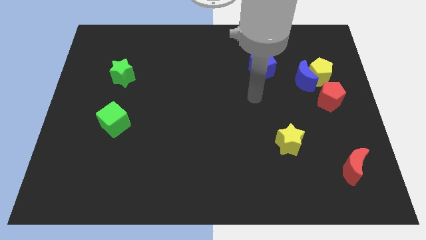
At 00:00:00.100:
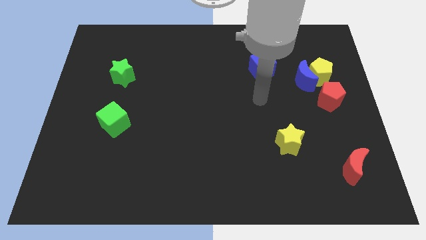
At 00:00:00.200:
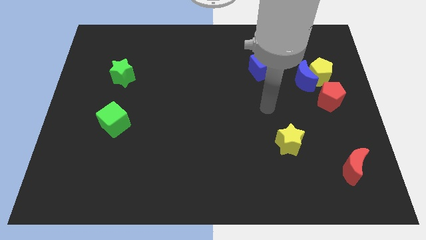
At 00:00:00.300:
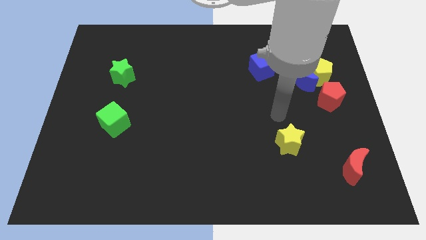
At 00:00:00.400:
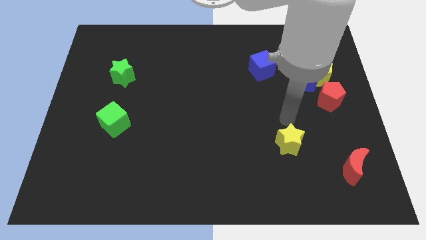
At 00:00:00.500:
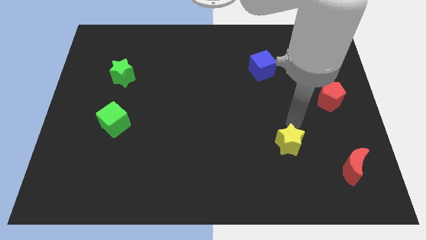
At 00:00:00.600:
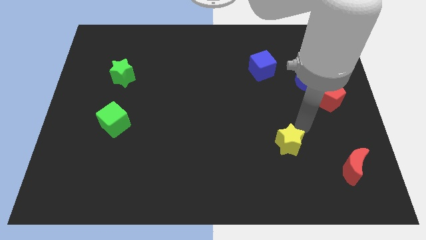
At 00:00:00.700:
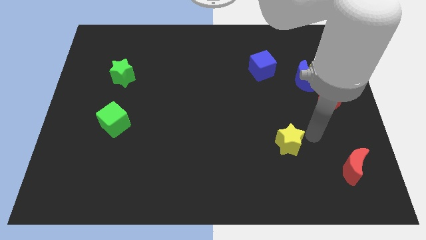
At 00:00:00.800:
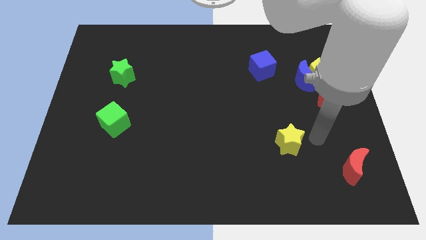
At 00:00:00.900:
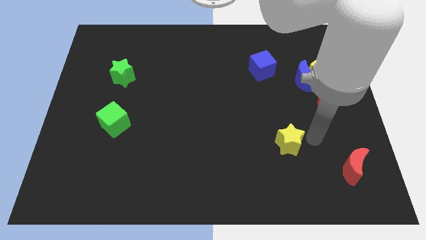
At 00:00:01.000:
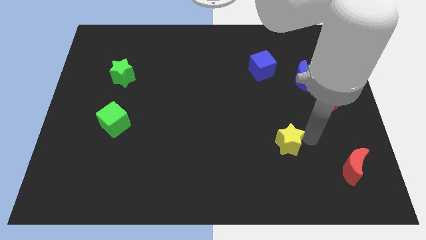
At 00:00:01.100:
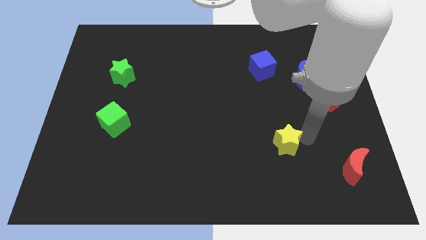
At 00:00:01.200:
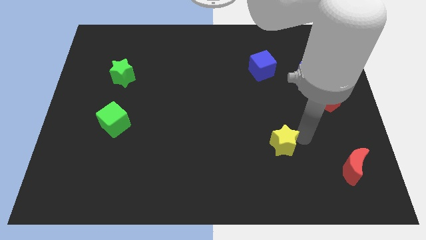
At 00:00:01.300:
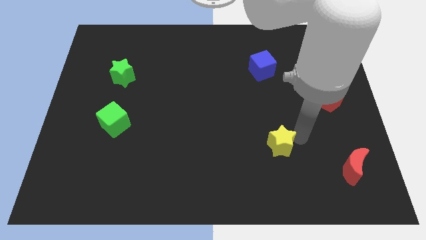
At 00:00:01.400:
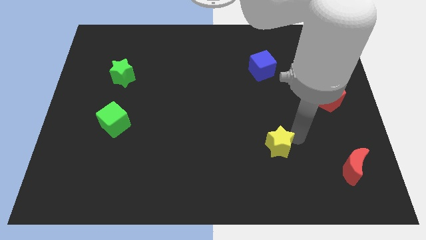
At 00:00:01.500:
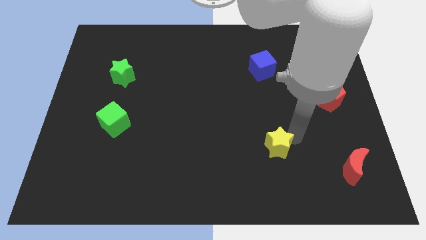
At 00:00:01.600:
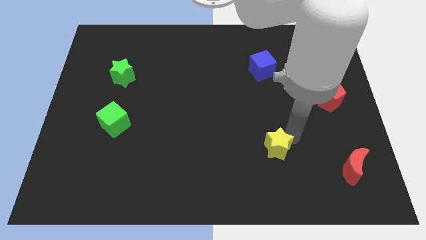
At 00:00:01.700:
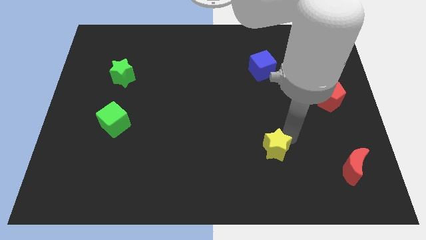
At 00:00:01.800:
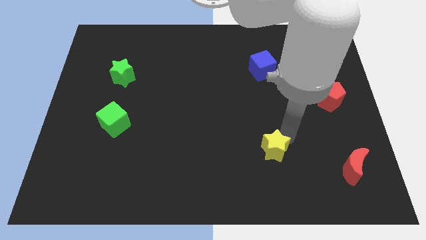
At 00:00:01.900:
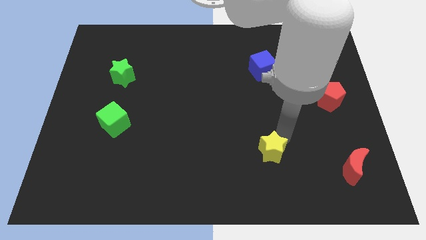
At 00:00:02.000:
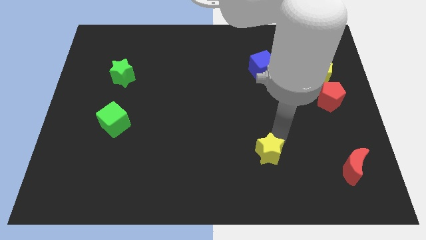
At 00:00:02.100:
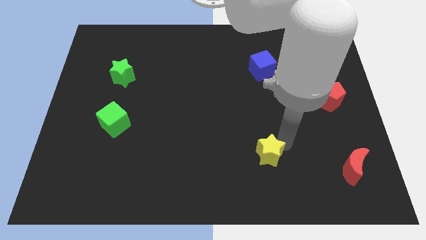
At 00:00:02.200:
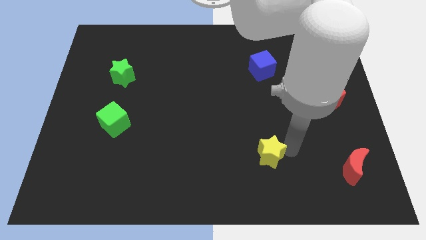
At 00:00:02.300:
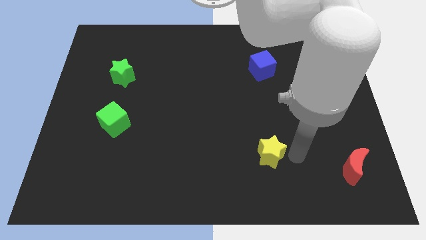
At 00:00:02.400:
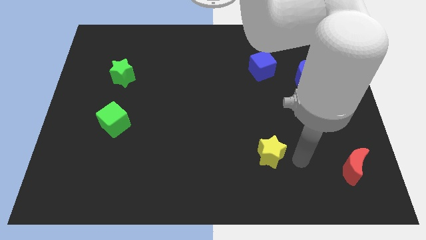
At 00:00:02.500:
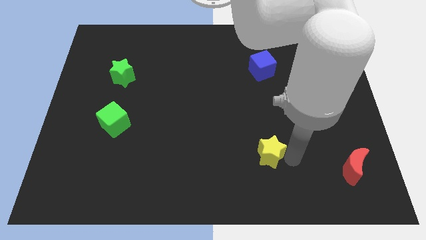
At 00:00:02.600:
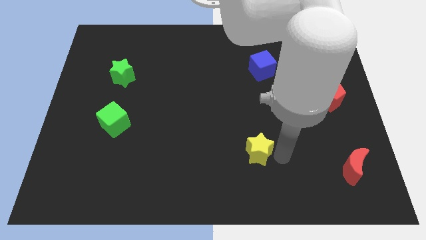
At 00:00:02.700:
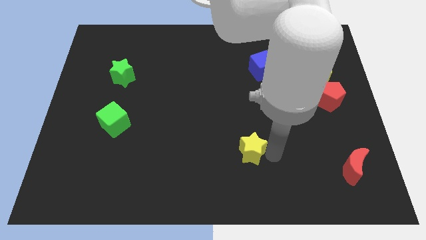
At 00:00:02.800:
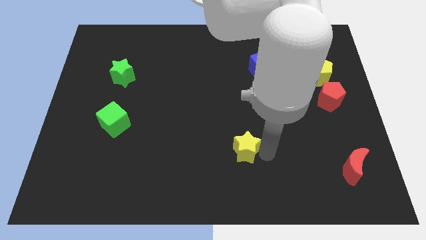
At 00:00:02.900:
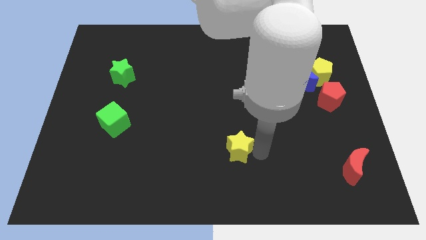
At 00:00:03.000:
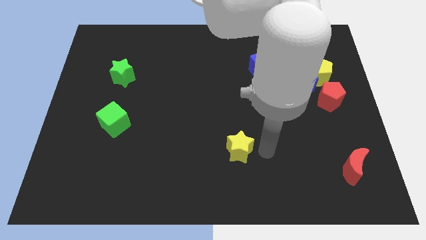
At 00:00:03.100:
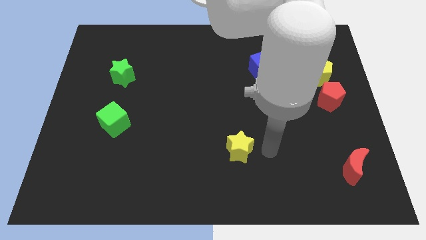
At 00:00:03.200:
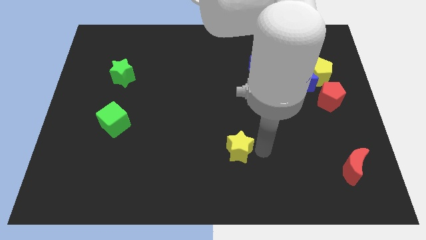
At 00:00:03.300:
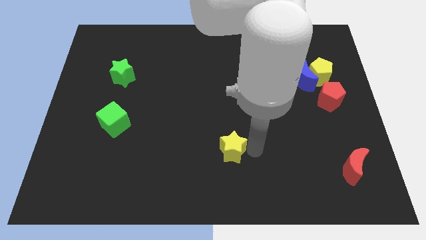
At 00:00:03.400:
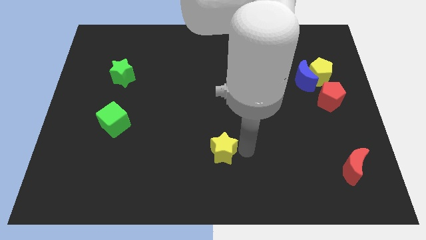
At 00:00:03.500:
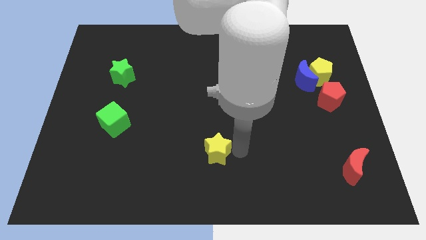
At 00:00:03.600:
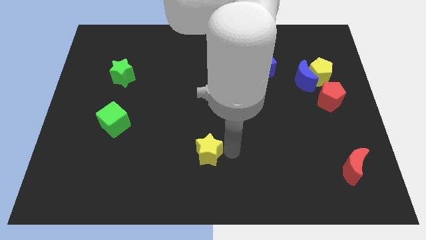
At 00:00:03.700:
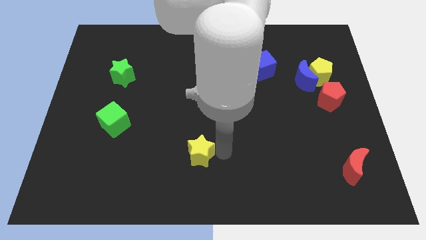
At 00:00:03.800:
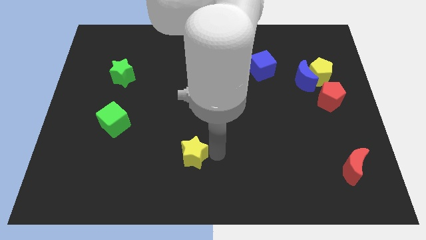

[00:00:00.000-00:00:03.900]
slide the yellow star left

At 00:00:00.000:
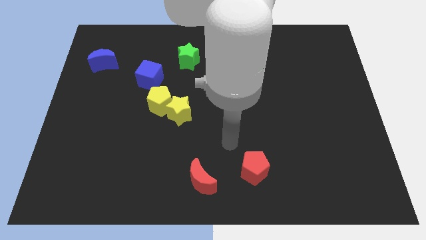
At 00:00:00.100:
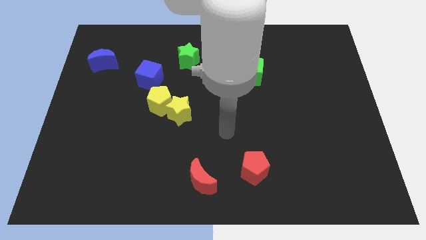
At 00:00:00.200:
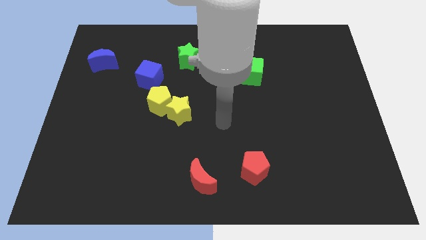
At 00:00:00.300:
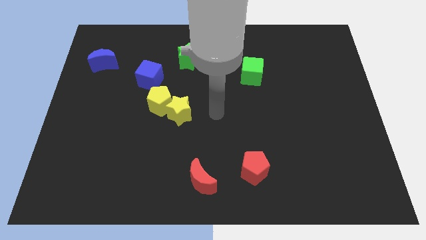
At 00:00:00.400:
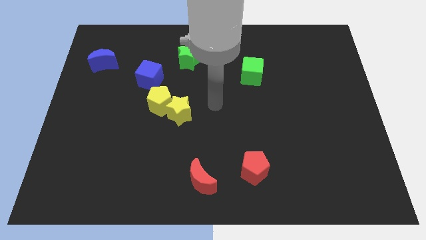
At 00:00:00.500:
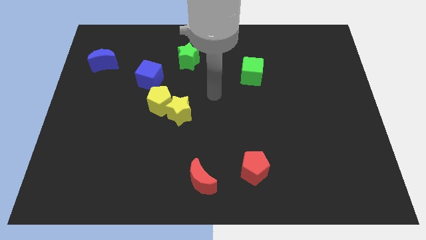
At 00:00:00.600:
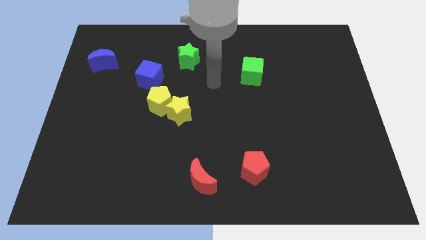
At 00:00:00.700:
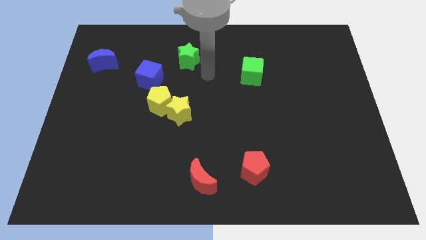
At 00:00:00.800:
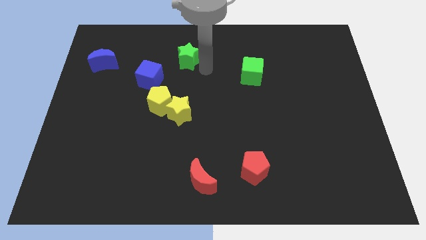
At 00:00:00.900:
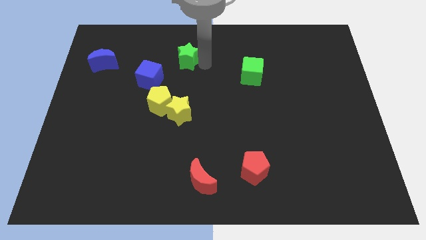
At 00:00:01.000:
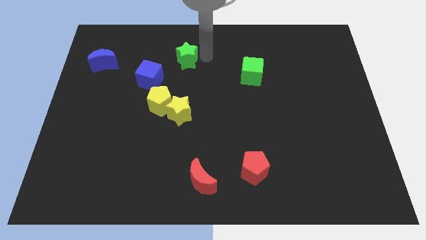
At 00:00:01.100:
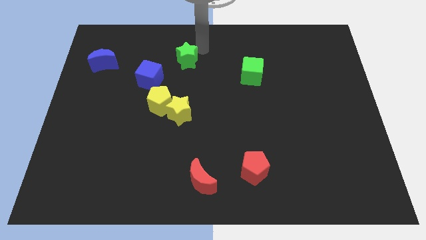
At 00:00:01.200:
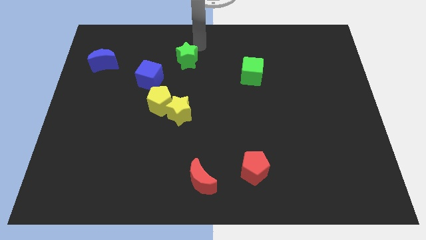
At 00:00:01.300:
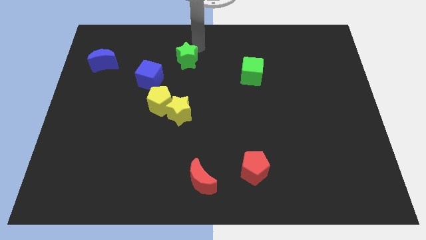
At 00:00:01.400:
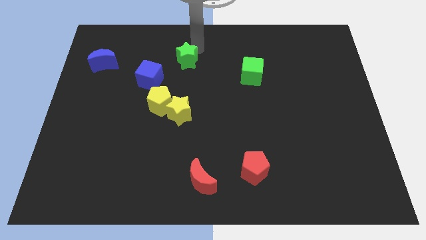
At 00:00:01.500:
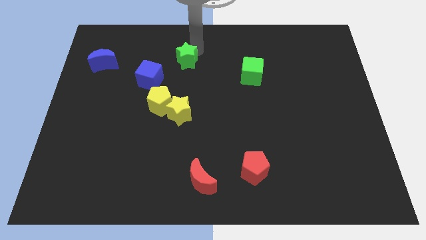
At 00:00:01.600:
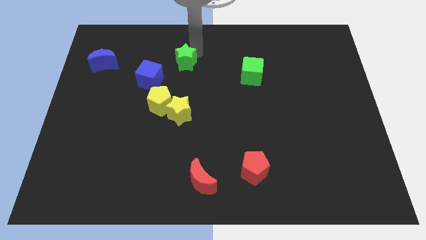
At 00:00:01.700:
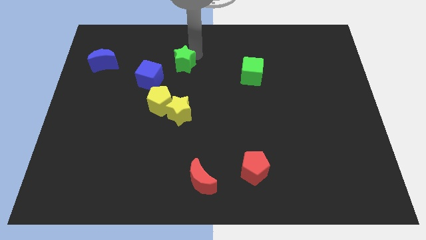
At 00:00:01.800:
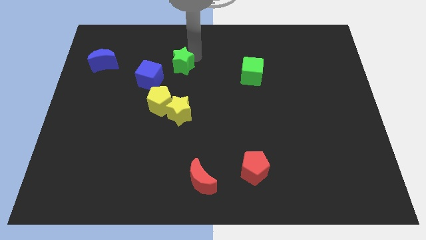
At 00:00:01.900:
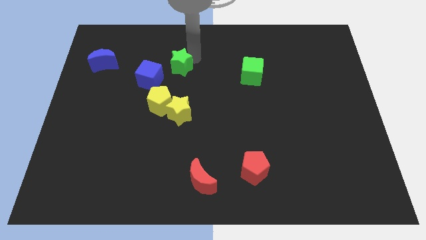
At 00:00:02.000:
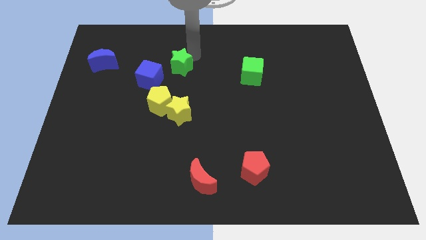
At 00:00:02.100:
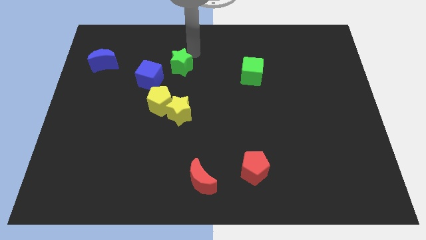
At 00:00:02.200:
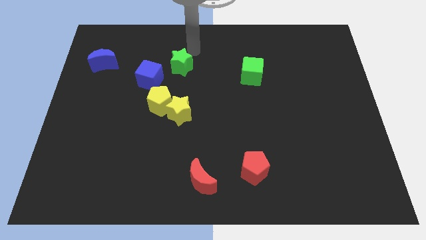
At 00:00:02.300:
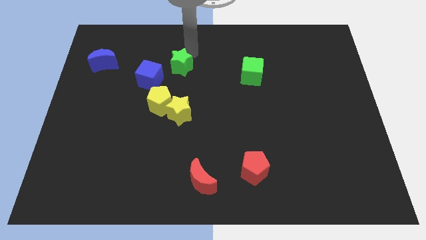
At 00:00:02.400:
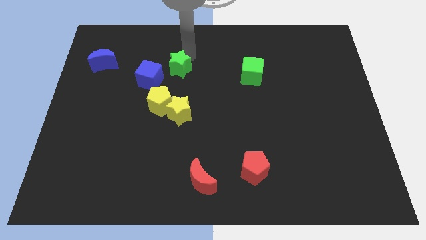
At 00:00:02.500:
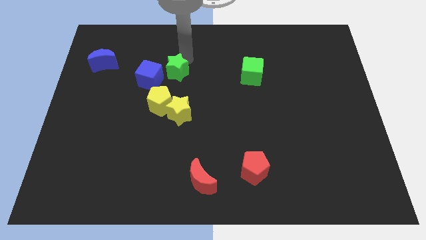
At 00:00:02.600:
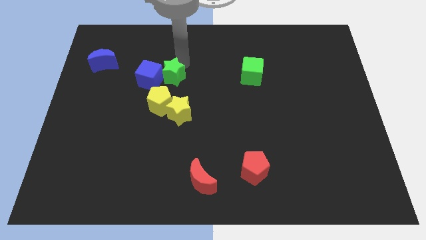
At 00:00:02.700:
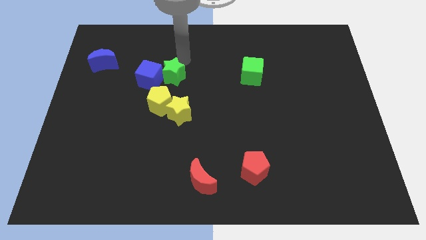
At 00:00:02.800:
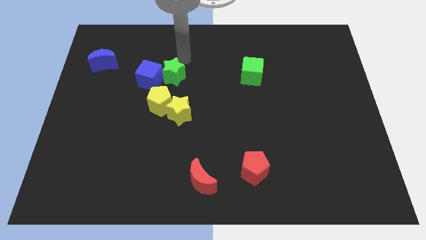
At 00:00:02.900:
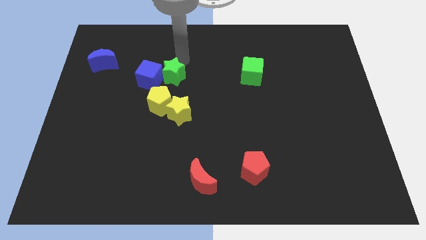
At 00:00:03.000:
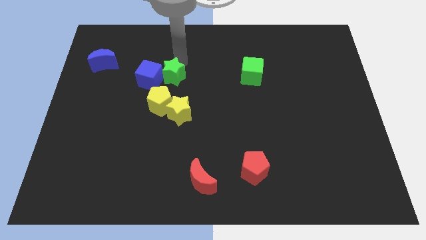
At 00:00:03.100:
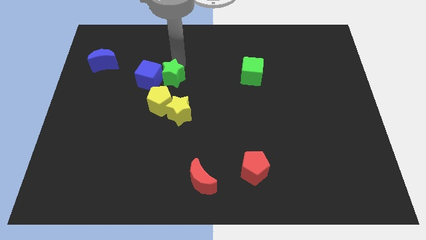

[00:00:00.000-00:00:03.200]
move the green star slightly downwards and left diagonally

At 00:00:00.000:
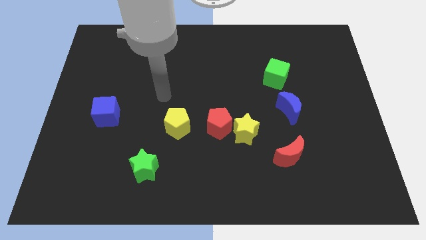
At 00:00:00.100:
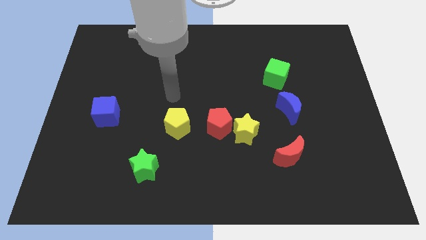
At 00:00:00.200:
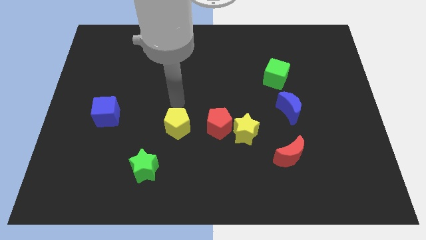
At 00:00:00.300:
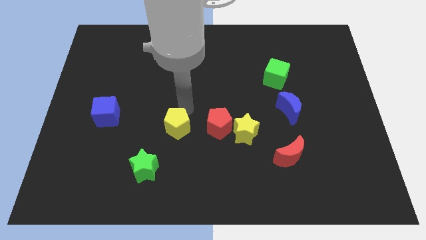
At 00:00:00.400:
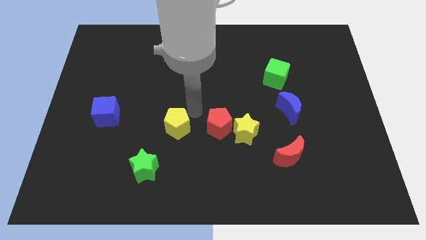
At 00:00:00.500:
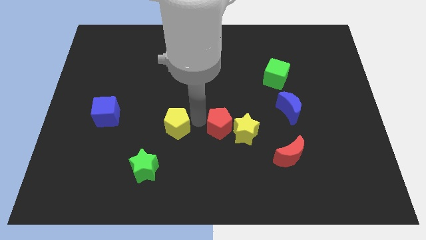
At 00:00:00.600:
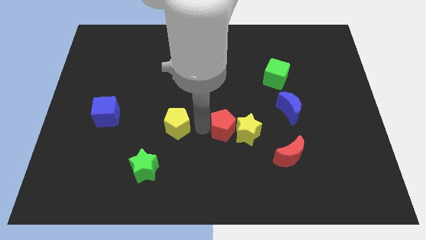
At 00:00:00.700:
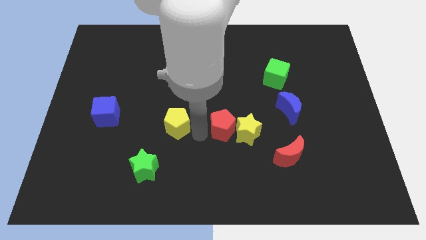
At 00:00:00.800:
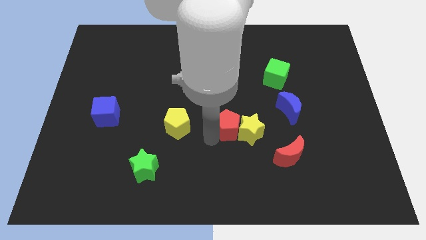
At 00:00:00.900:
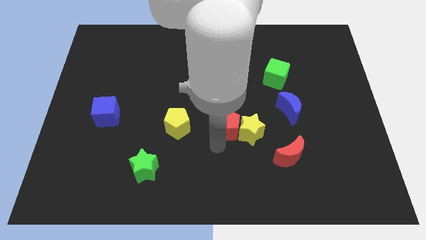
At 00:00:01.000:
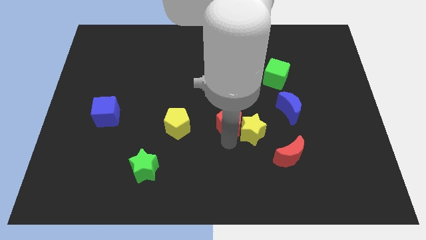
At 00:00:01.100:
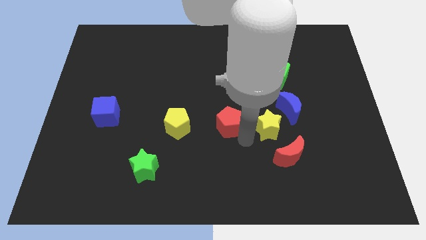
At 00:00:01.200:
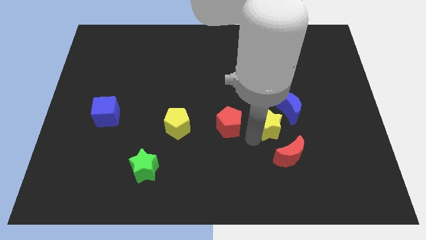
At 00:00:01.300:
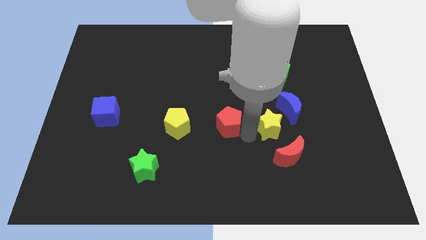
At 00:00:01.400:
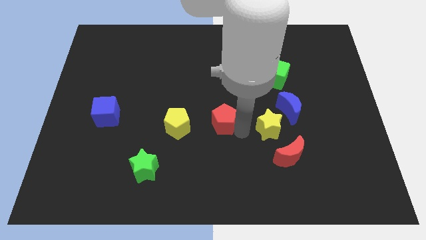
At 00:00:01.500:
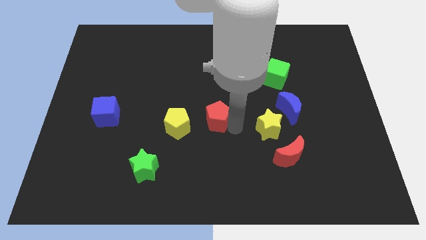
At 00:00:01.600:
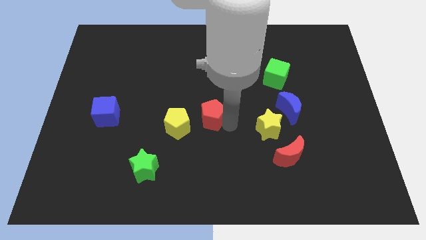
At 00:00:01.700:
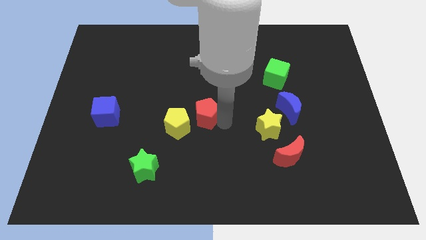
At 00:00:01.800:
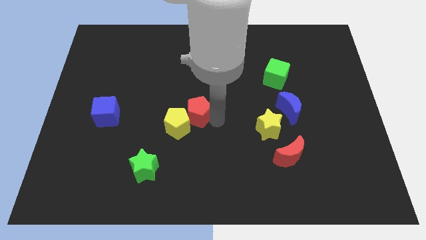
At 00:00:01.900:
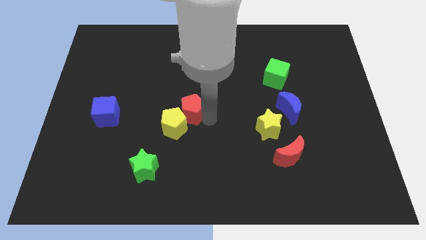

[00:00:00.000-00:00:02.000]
slightly move the red pentagon upwards and left diagonally
